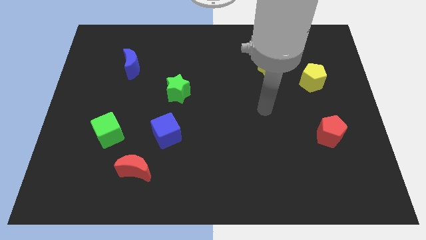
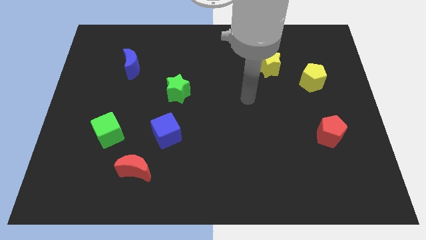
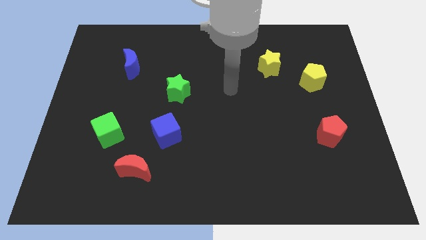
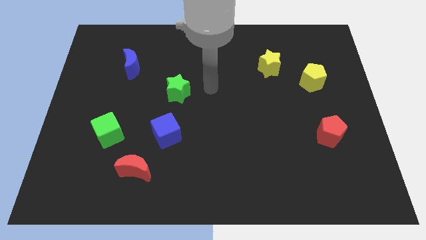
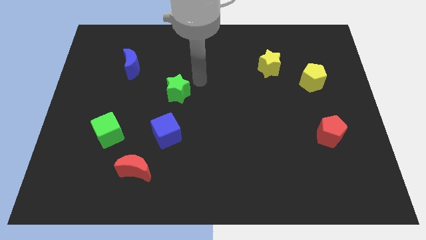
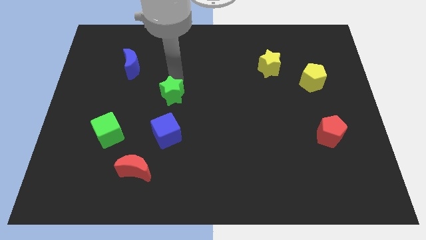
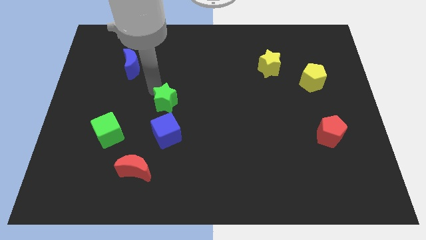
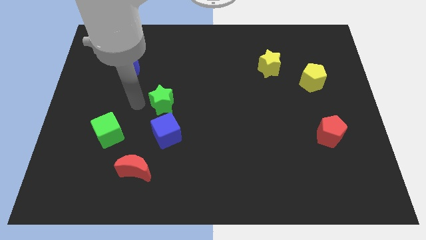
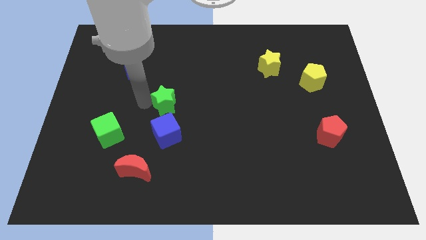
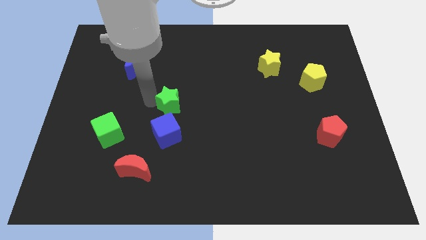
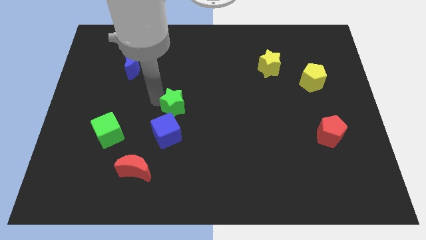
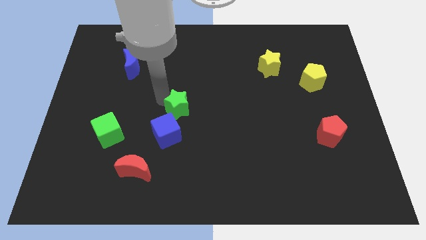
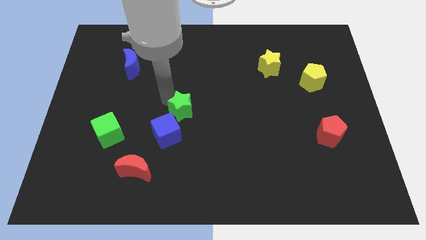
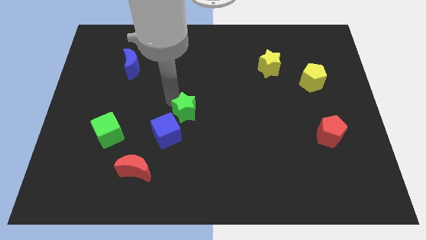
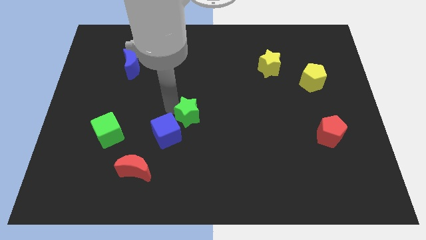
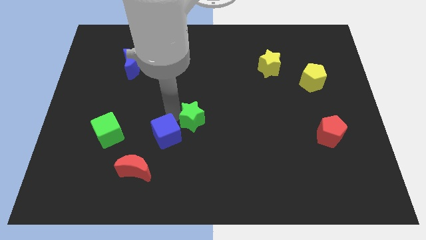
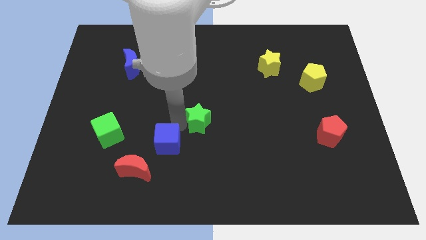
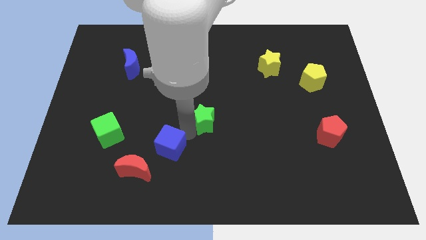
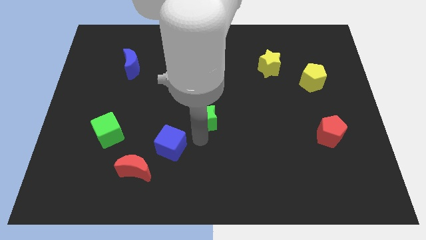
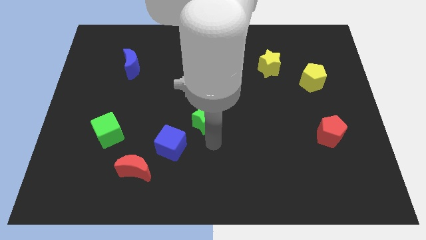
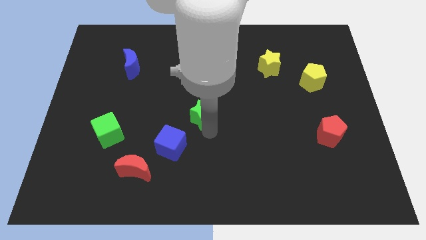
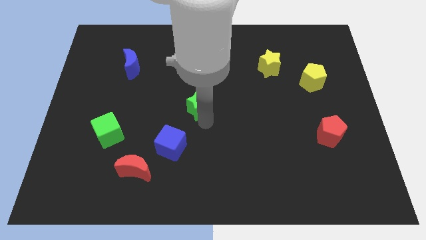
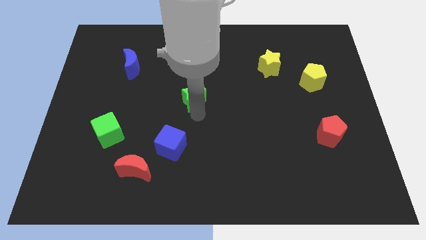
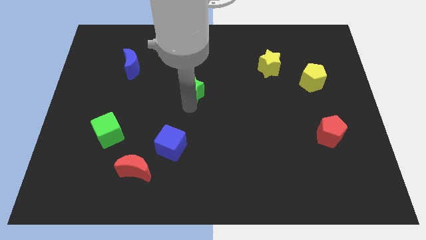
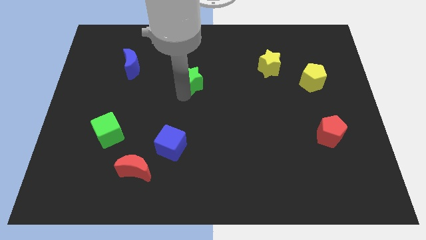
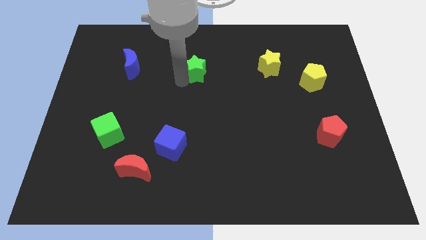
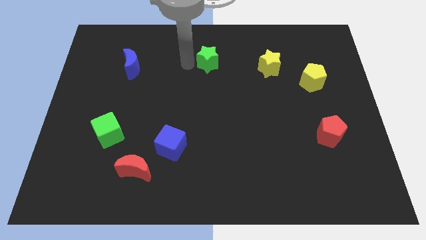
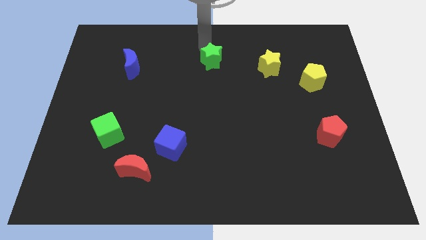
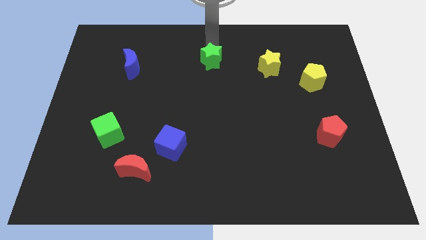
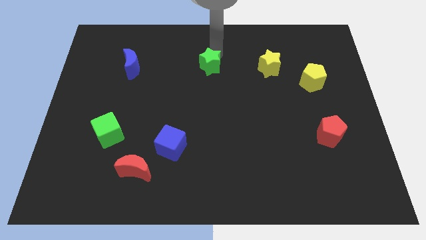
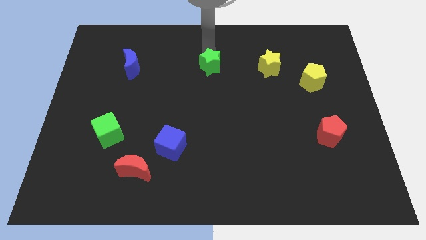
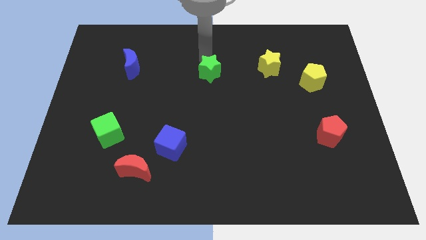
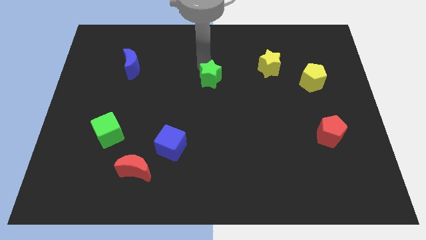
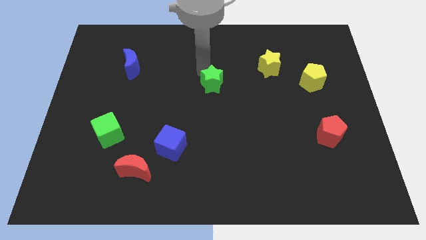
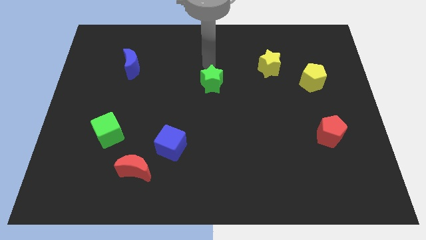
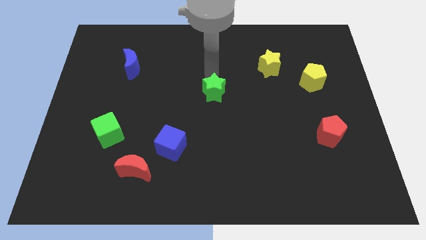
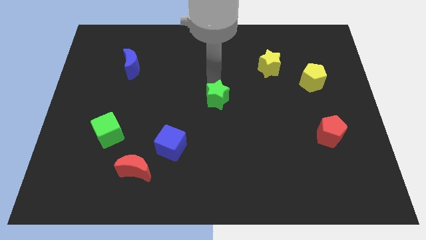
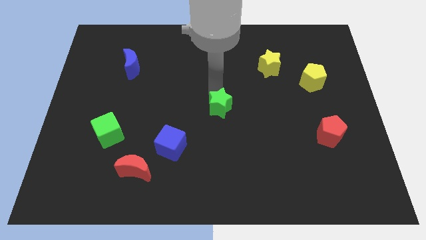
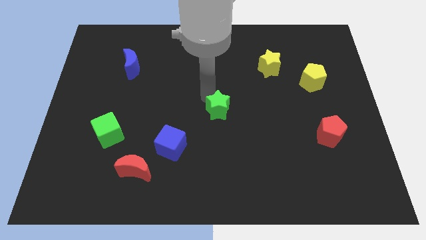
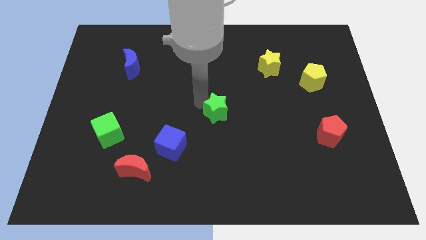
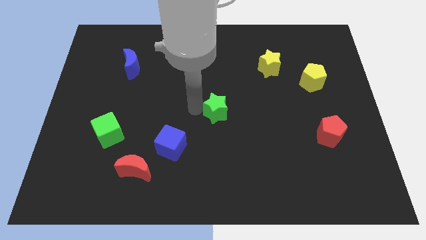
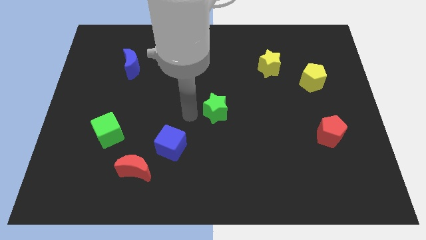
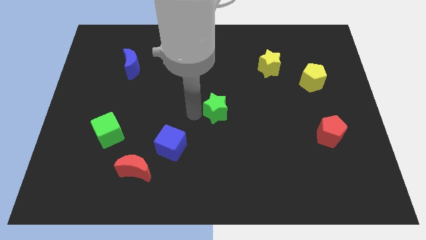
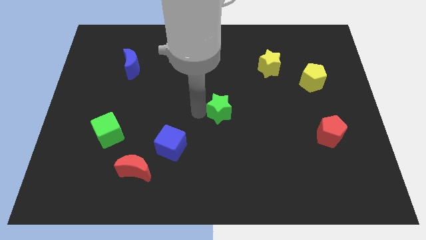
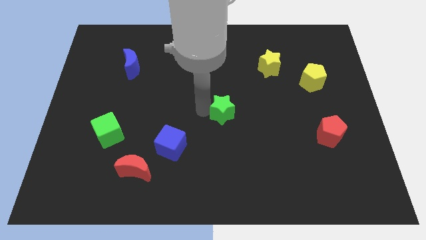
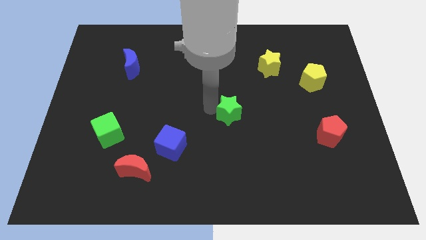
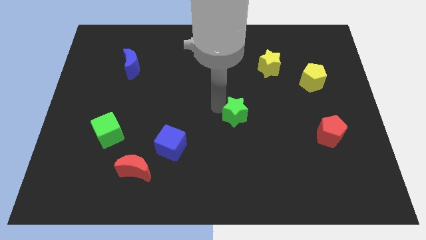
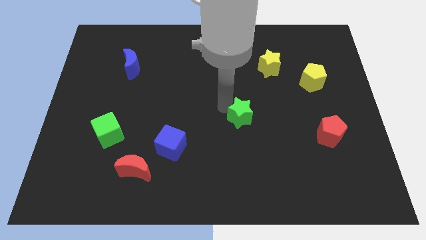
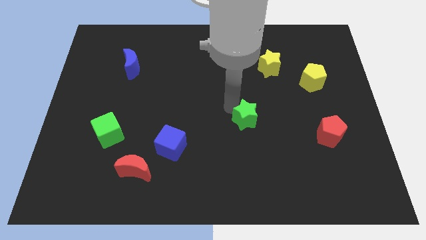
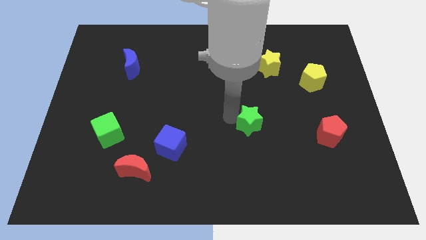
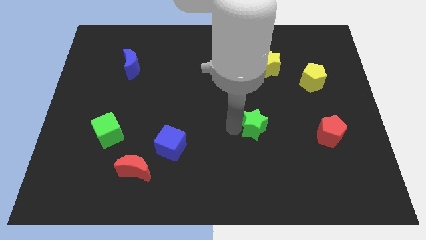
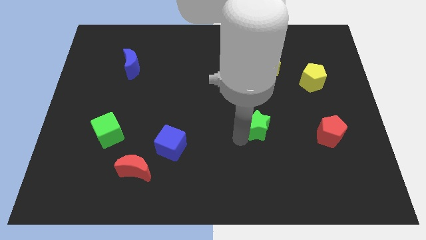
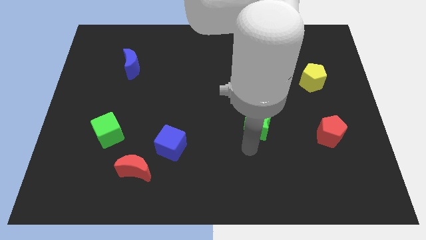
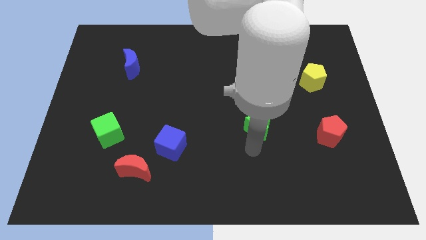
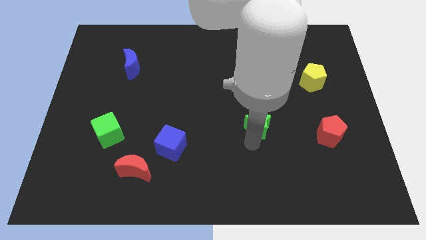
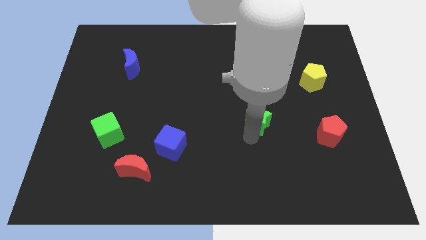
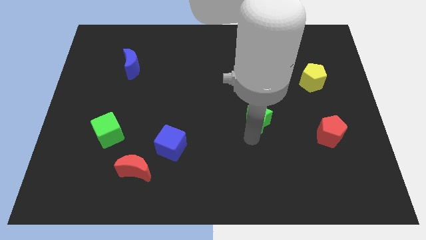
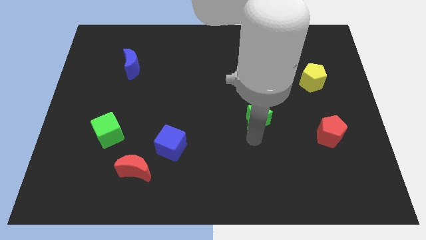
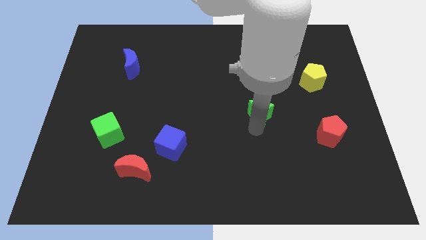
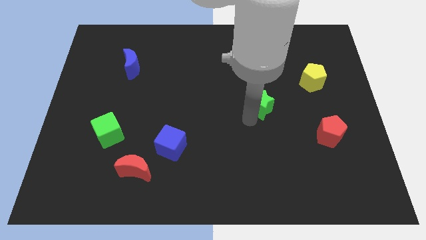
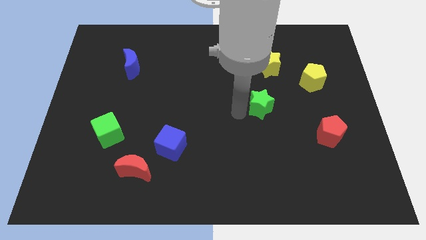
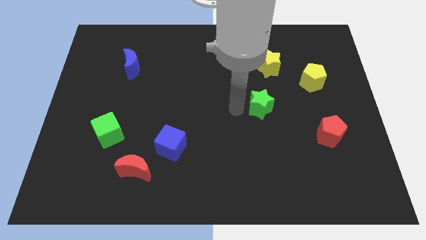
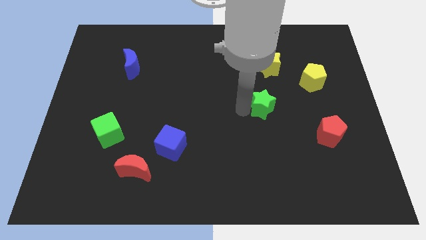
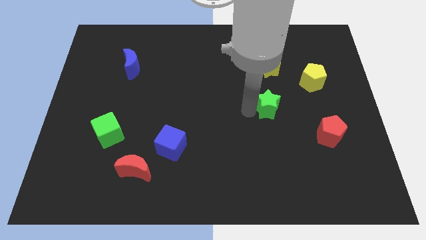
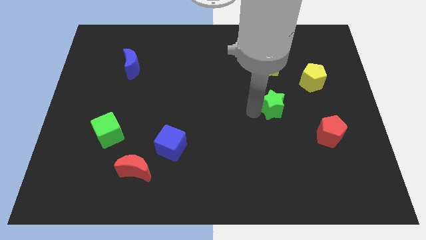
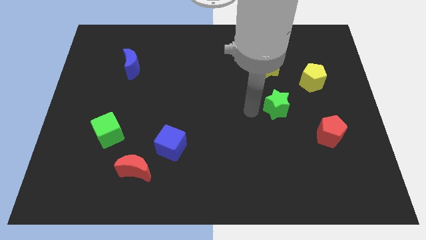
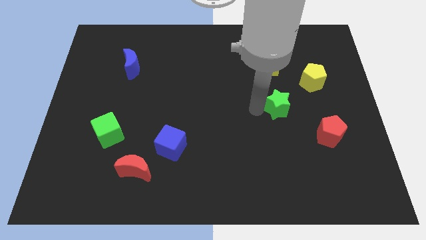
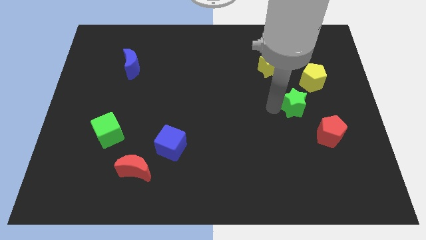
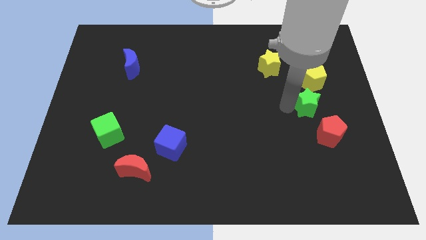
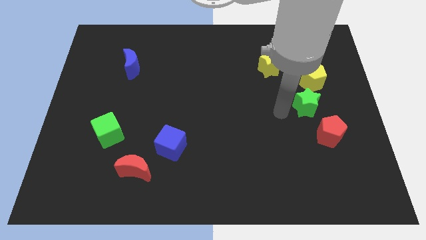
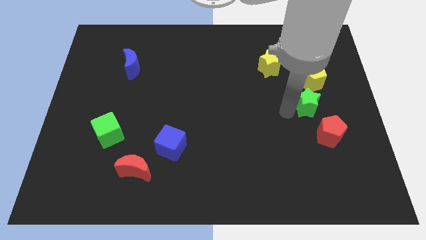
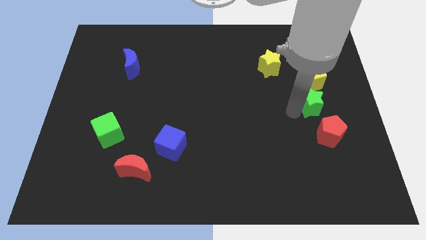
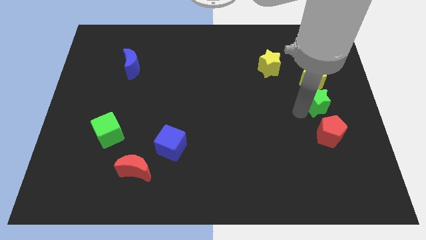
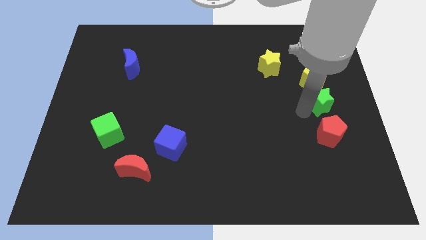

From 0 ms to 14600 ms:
put the green star to the right side
